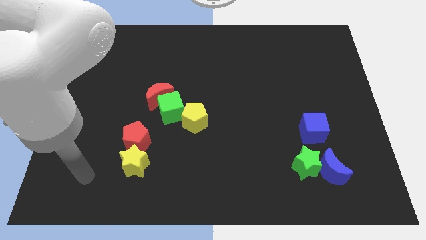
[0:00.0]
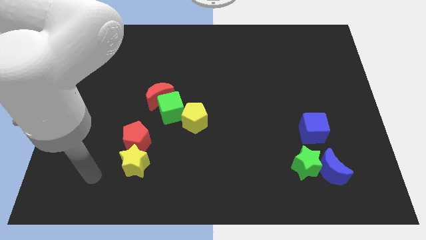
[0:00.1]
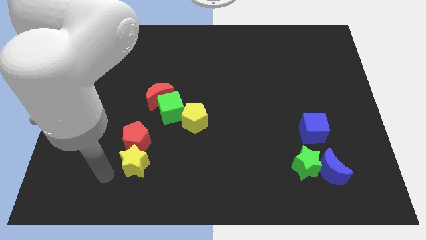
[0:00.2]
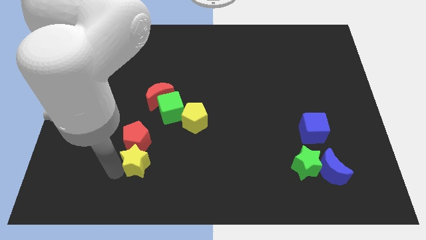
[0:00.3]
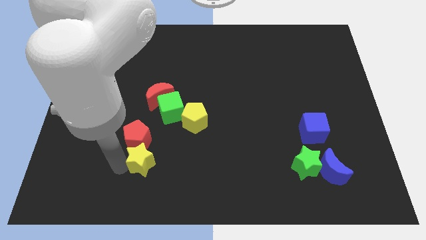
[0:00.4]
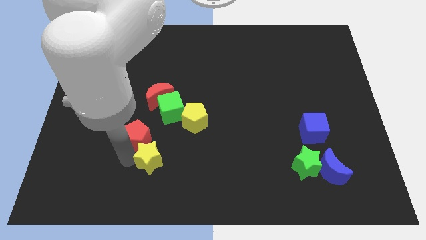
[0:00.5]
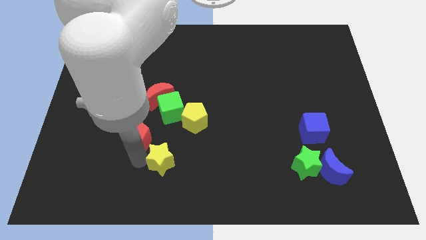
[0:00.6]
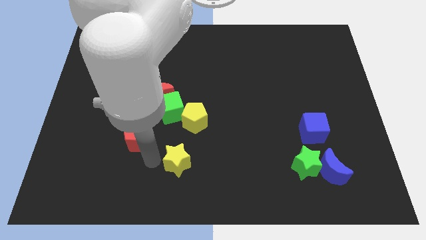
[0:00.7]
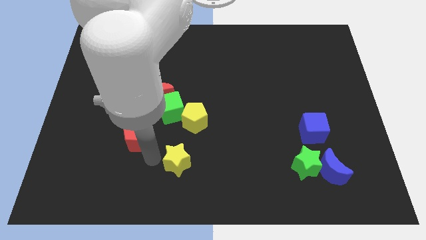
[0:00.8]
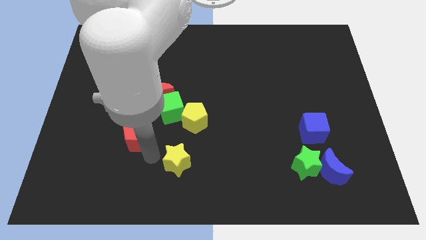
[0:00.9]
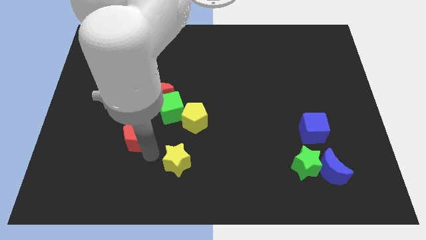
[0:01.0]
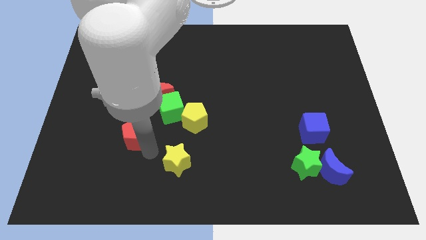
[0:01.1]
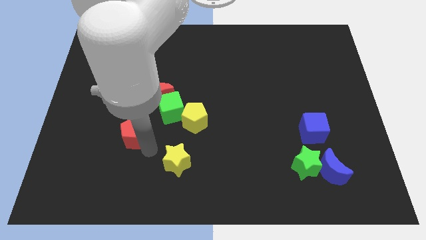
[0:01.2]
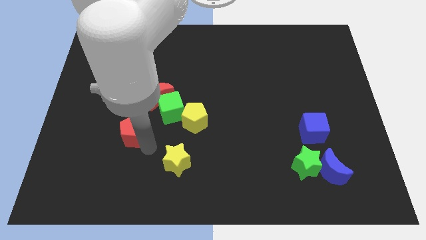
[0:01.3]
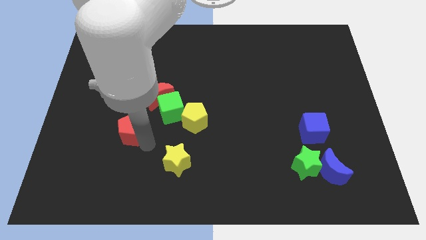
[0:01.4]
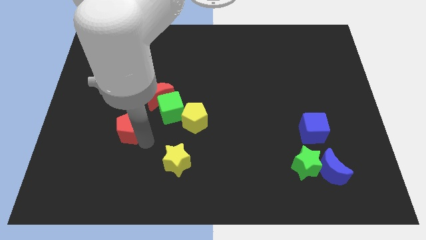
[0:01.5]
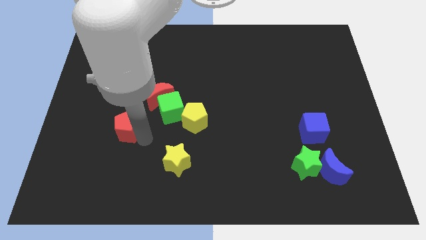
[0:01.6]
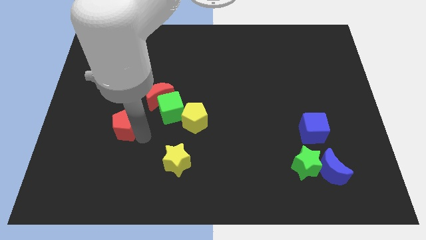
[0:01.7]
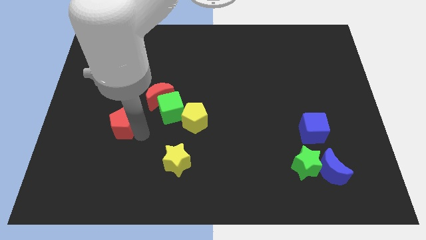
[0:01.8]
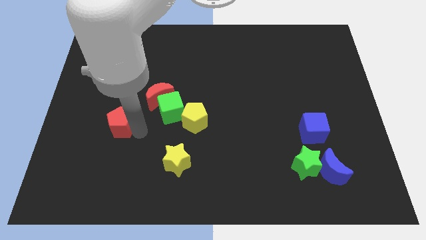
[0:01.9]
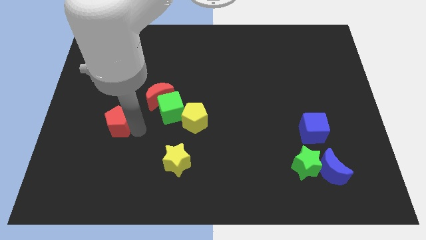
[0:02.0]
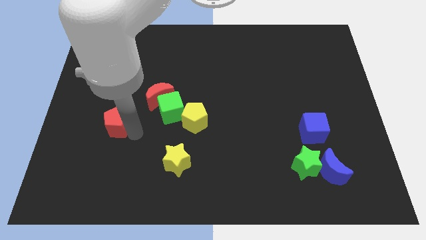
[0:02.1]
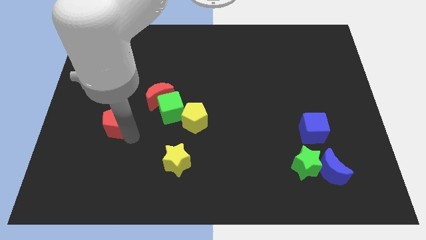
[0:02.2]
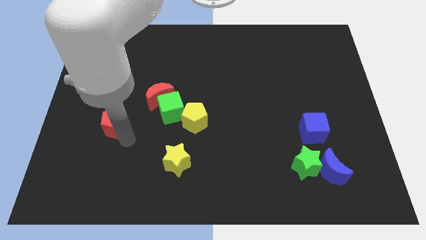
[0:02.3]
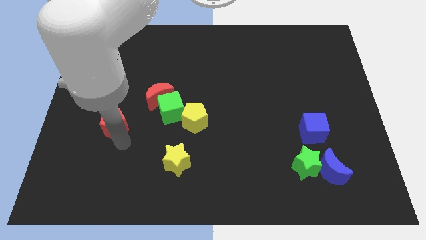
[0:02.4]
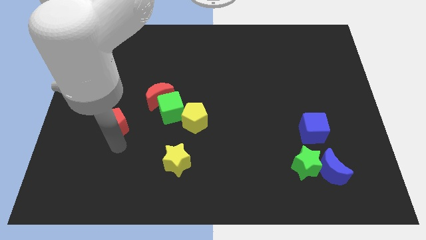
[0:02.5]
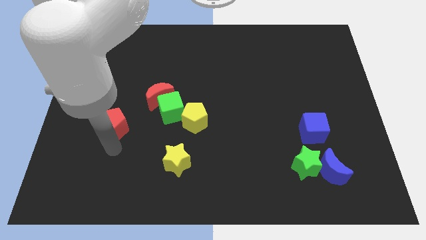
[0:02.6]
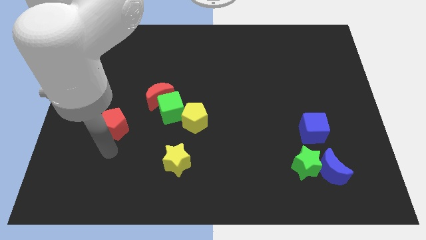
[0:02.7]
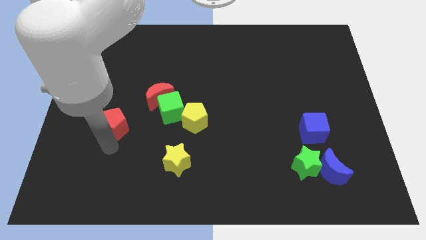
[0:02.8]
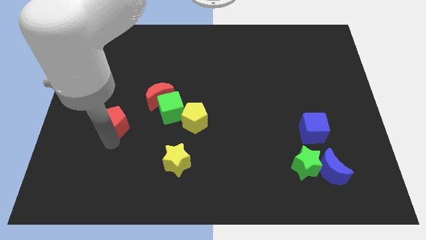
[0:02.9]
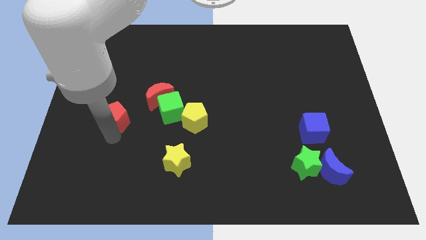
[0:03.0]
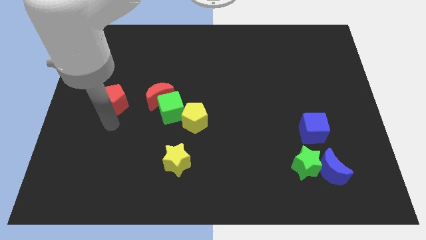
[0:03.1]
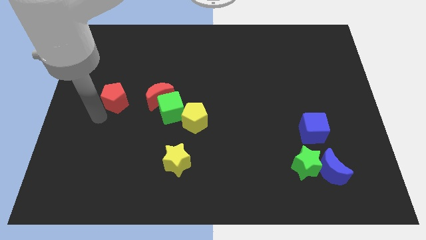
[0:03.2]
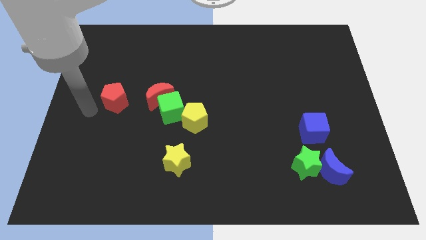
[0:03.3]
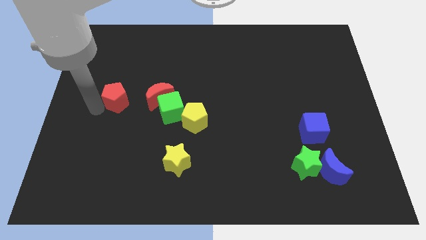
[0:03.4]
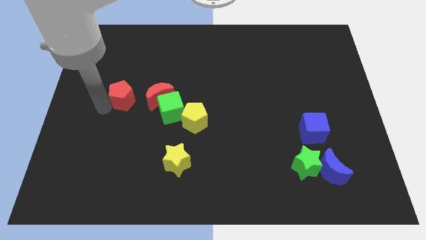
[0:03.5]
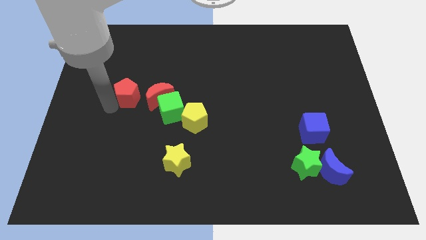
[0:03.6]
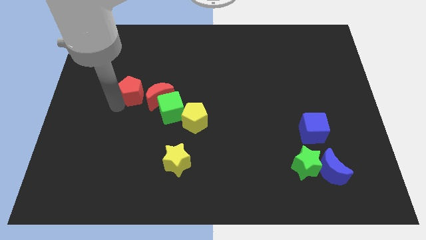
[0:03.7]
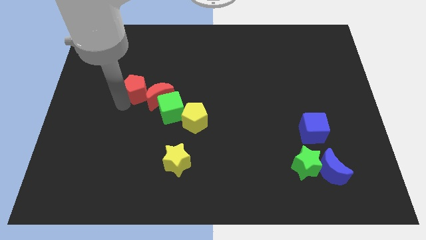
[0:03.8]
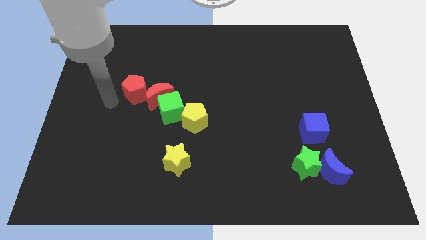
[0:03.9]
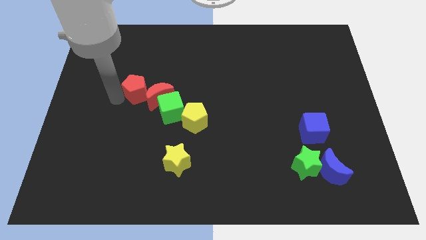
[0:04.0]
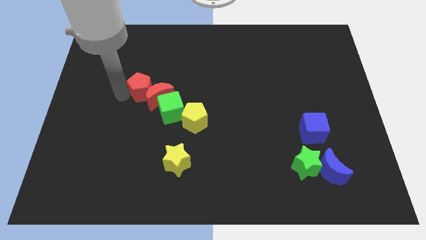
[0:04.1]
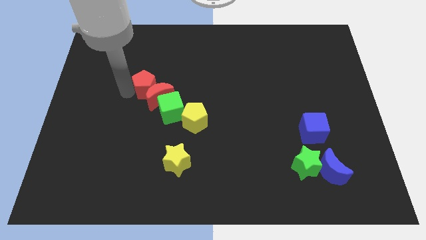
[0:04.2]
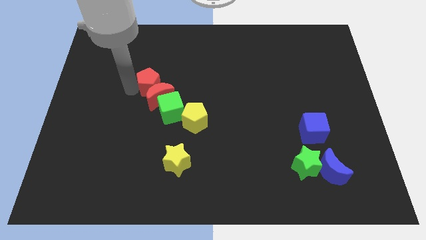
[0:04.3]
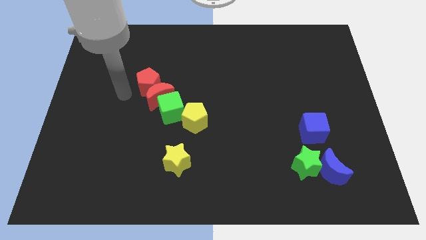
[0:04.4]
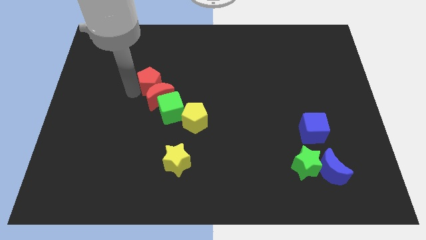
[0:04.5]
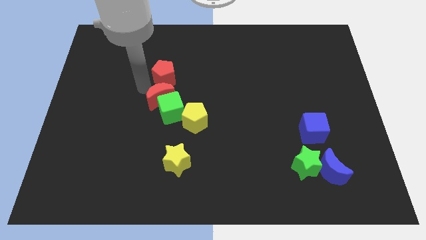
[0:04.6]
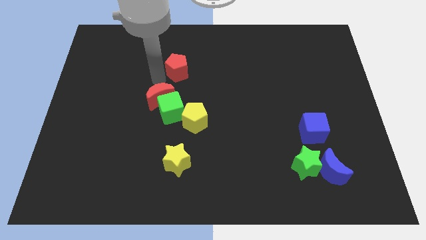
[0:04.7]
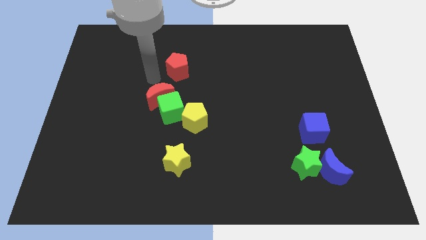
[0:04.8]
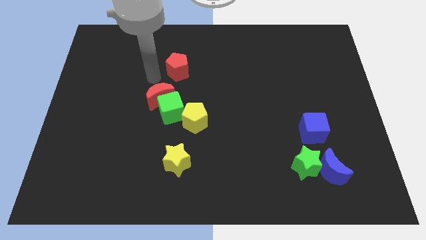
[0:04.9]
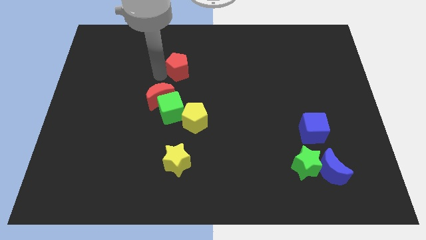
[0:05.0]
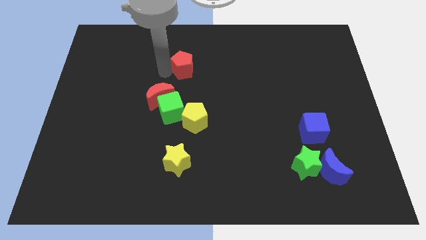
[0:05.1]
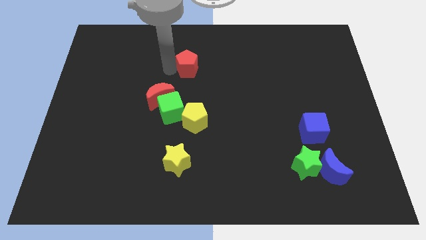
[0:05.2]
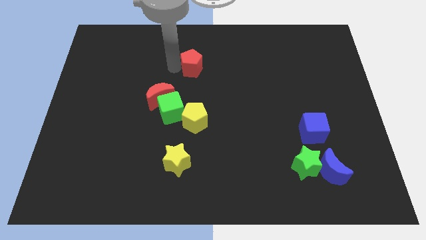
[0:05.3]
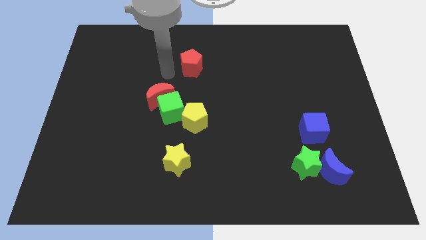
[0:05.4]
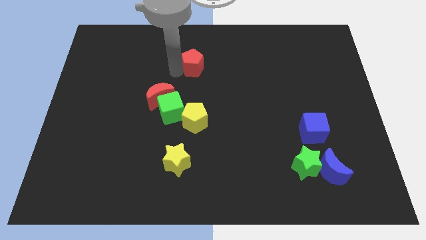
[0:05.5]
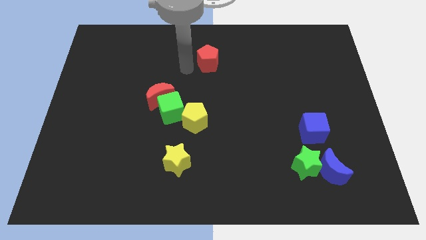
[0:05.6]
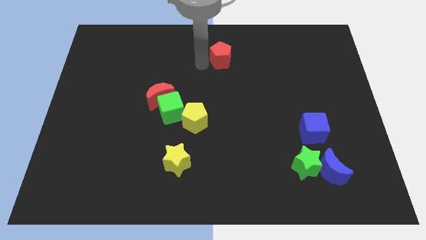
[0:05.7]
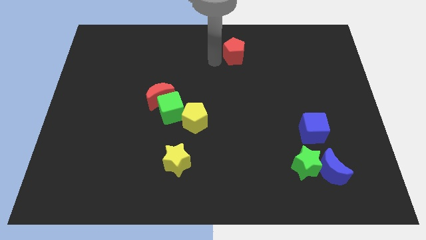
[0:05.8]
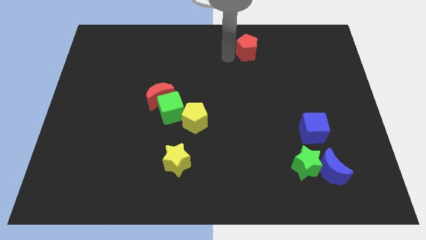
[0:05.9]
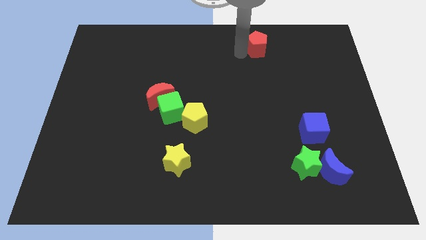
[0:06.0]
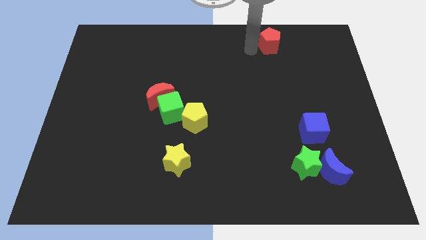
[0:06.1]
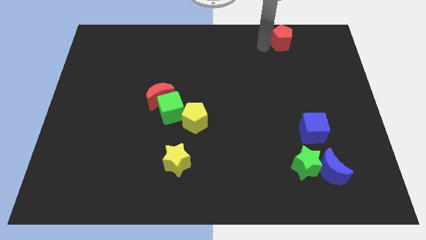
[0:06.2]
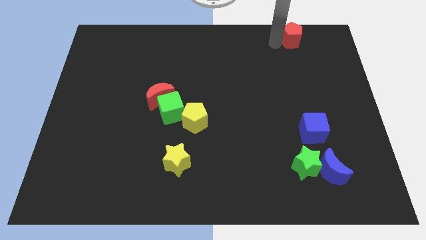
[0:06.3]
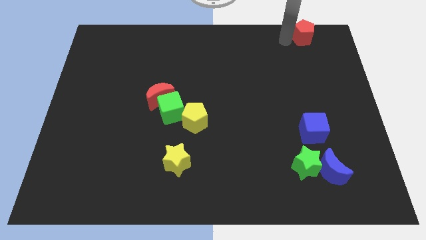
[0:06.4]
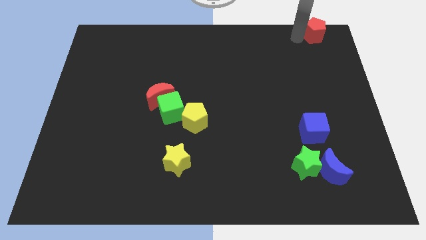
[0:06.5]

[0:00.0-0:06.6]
put the red pentagon to the top right of the board

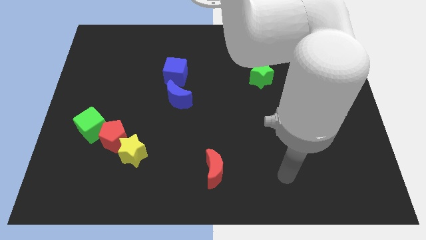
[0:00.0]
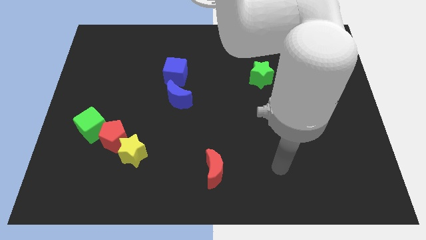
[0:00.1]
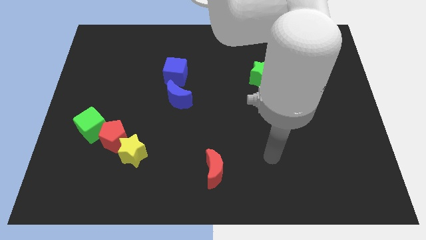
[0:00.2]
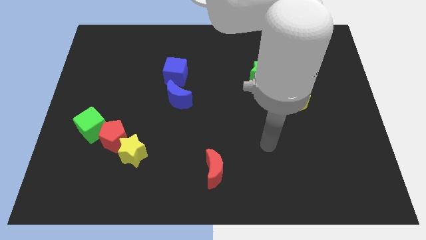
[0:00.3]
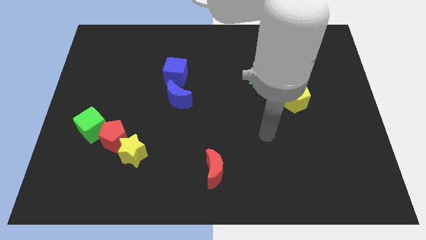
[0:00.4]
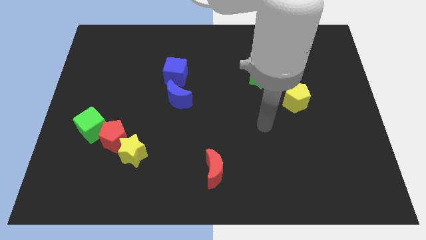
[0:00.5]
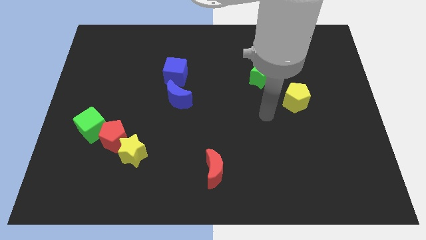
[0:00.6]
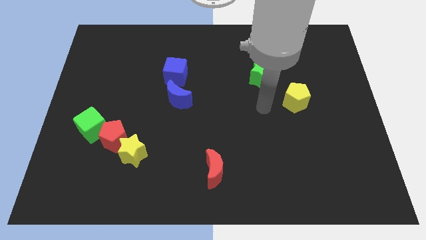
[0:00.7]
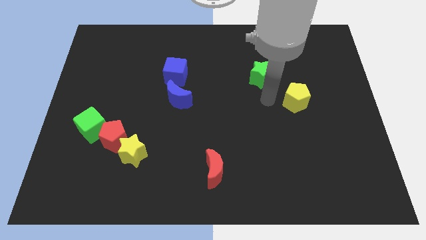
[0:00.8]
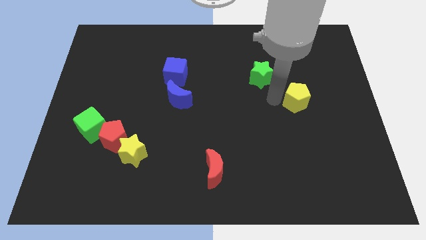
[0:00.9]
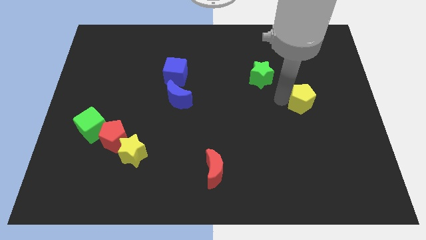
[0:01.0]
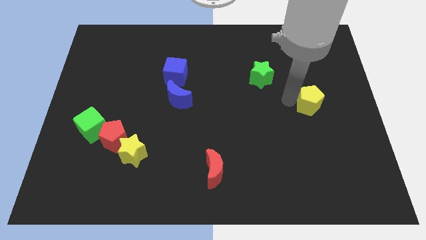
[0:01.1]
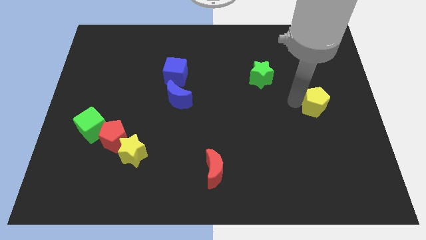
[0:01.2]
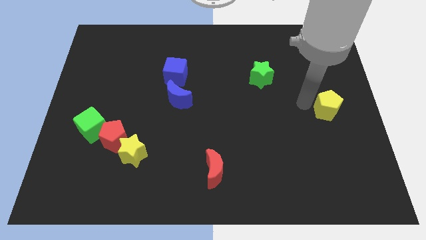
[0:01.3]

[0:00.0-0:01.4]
push the yellow pentagon to the right side
